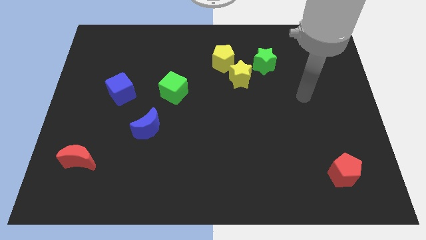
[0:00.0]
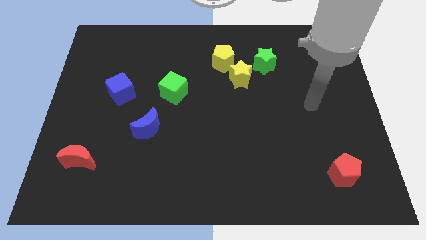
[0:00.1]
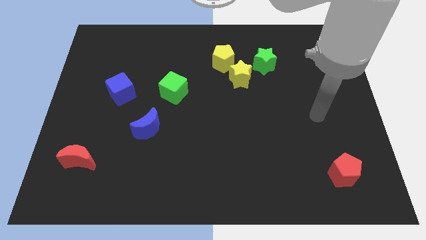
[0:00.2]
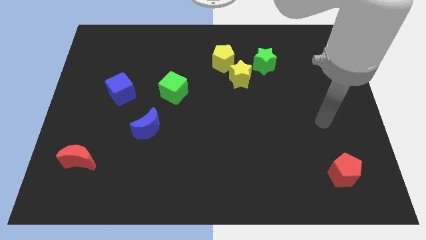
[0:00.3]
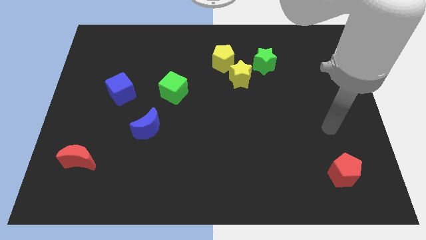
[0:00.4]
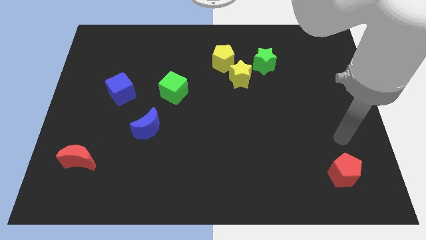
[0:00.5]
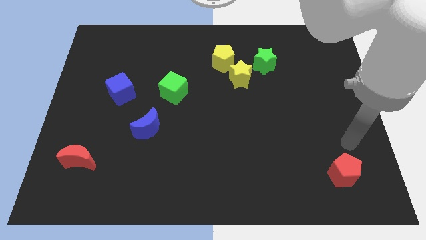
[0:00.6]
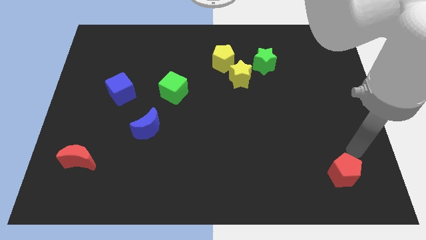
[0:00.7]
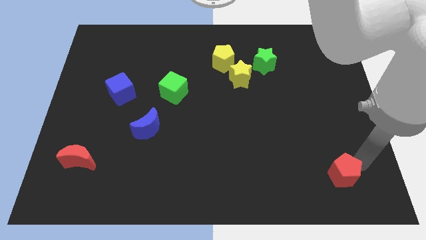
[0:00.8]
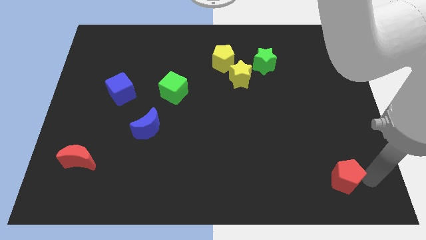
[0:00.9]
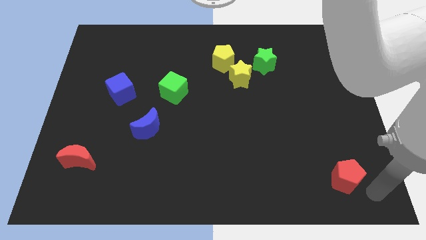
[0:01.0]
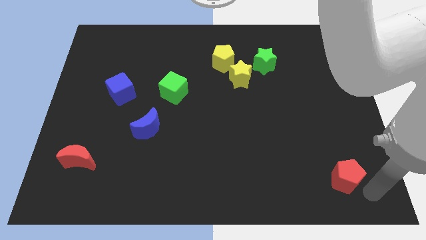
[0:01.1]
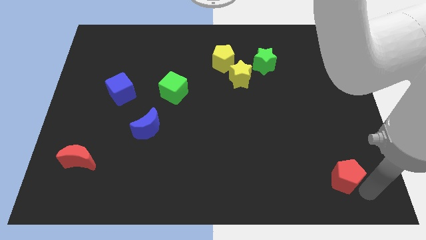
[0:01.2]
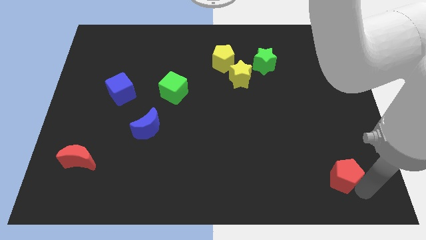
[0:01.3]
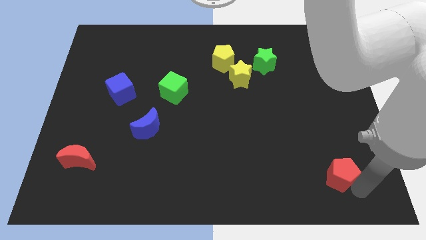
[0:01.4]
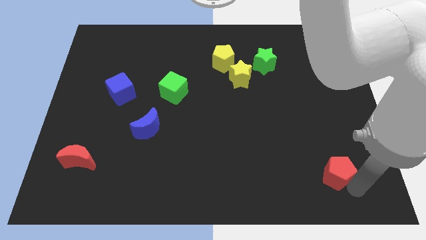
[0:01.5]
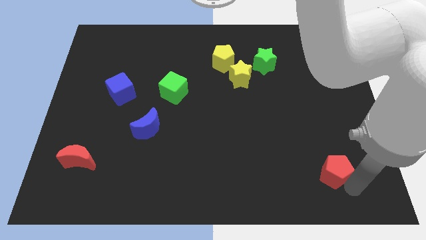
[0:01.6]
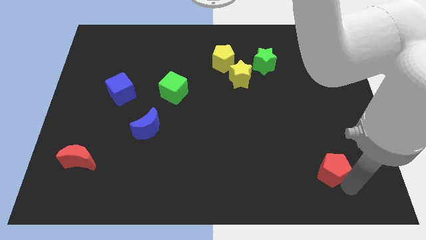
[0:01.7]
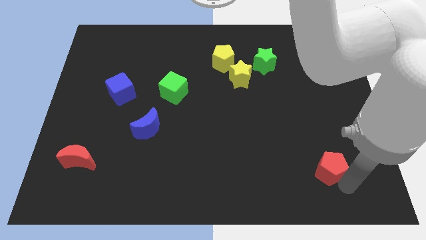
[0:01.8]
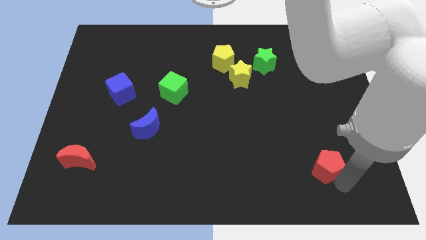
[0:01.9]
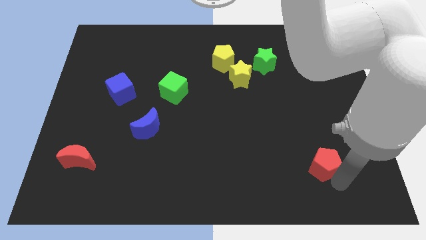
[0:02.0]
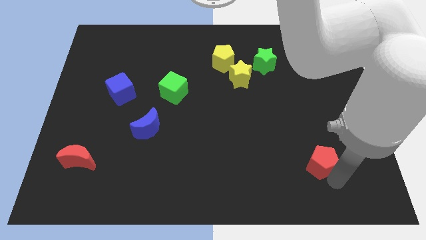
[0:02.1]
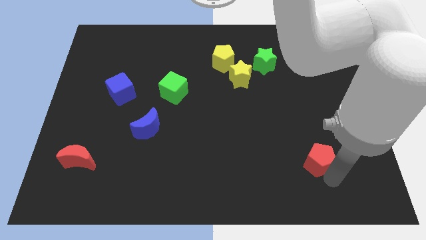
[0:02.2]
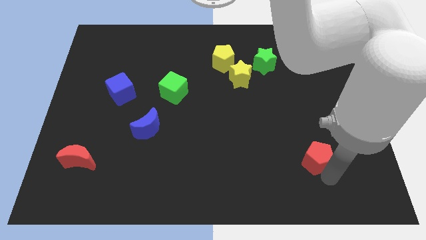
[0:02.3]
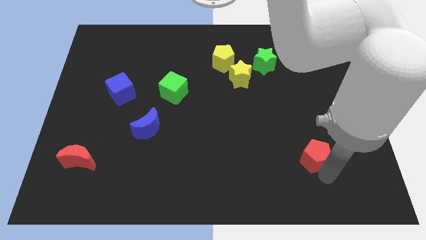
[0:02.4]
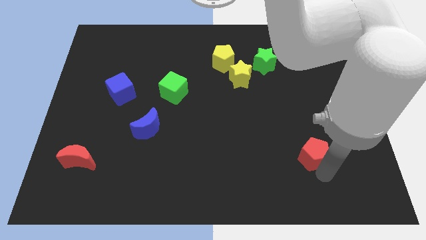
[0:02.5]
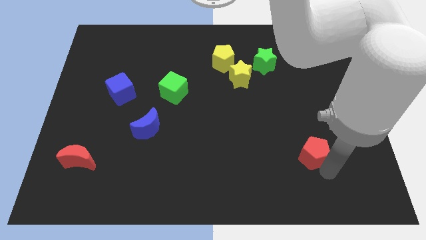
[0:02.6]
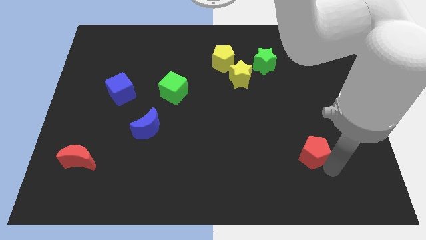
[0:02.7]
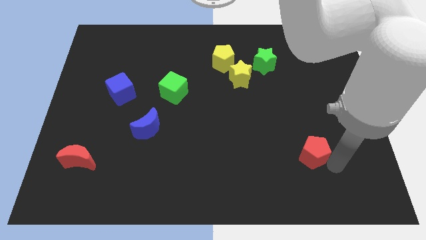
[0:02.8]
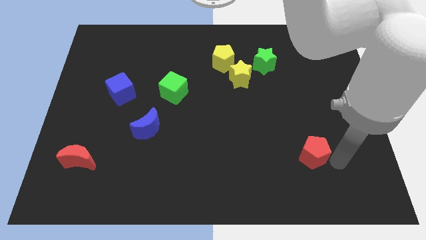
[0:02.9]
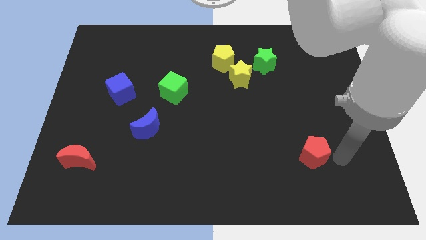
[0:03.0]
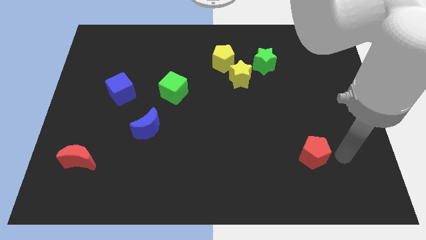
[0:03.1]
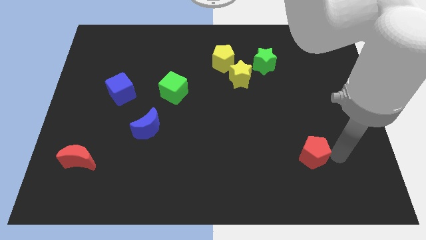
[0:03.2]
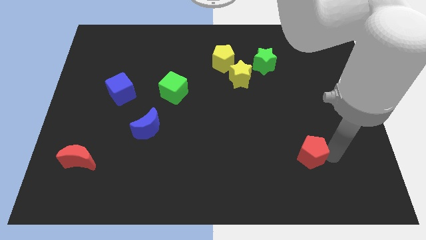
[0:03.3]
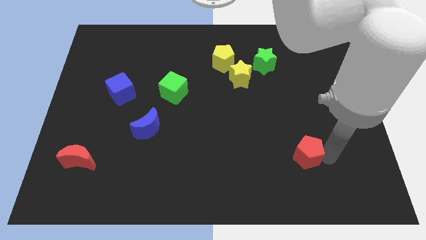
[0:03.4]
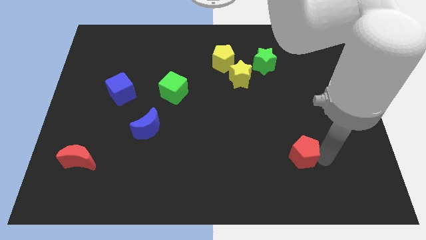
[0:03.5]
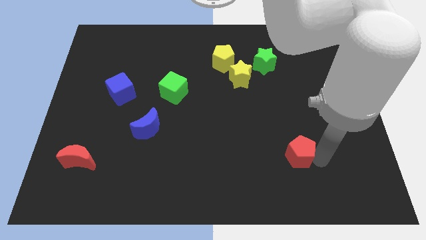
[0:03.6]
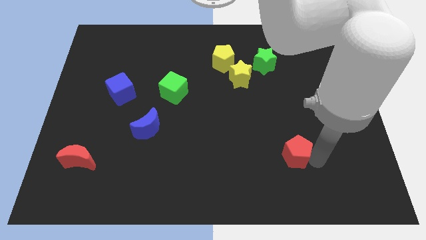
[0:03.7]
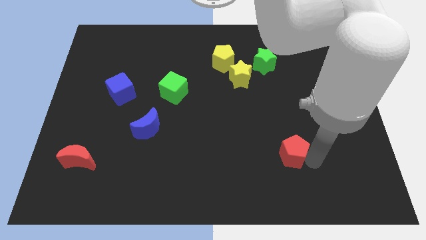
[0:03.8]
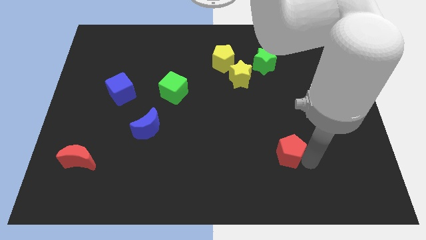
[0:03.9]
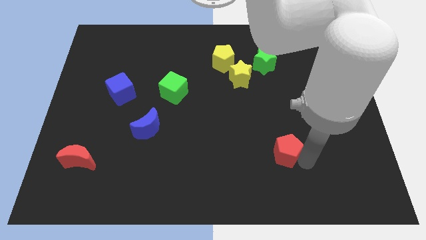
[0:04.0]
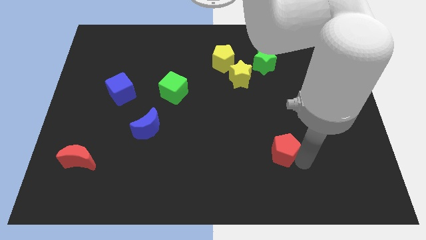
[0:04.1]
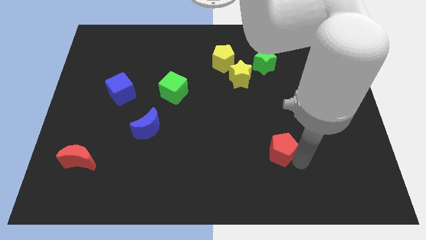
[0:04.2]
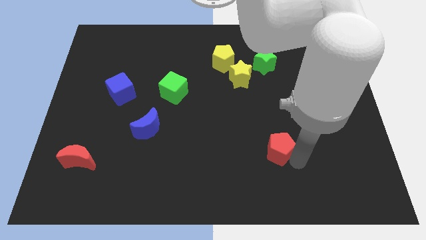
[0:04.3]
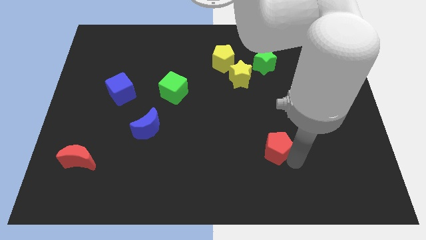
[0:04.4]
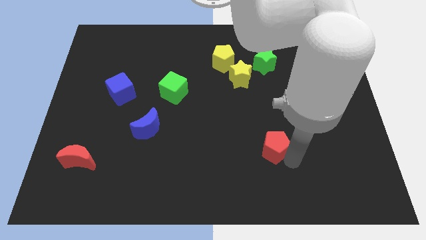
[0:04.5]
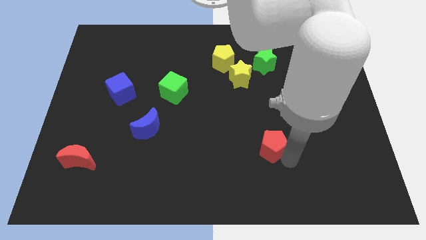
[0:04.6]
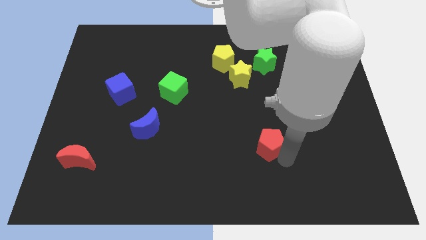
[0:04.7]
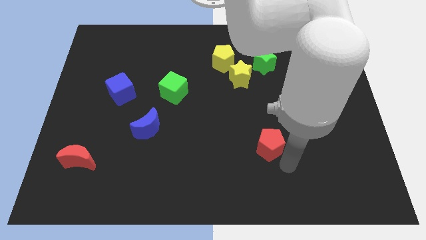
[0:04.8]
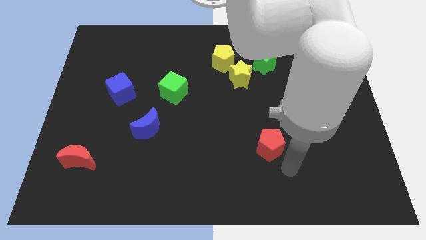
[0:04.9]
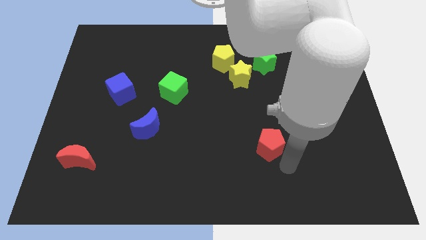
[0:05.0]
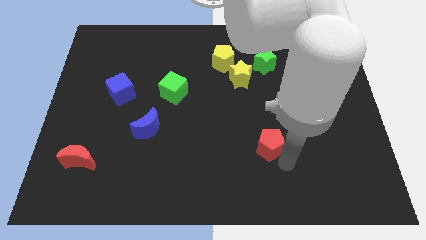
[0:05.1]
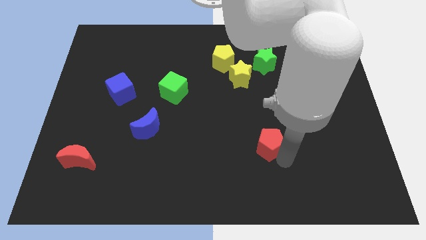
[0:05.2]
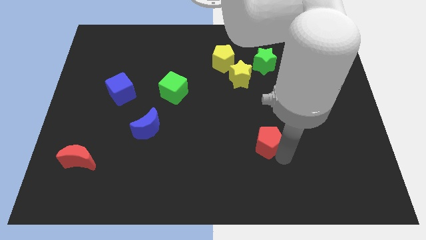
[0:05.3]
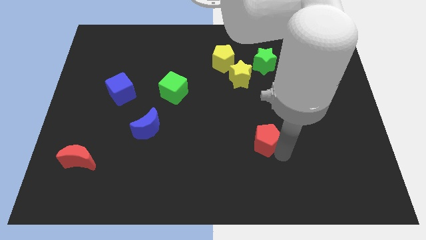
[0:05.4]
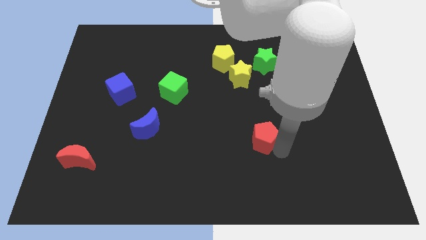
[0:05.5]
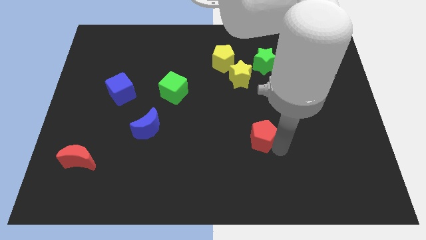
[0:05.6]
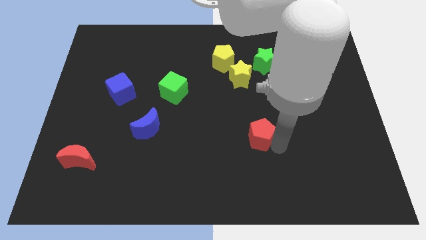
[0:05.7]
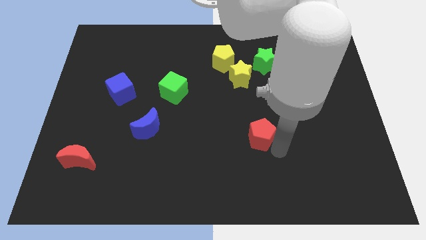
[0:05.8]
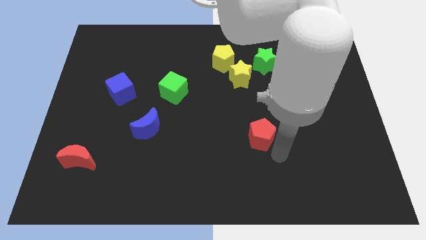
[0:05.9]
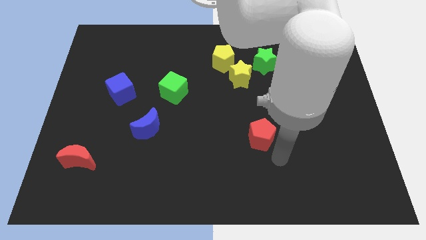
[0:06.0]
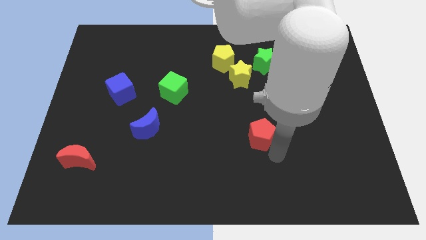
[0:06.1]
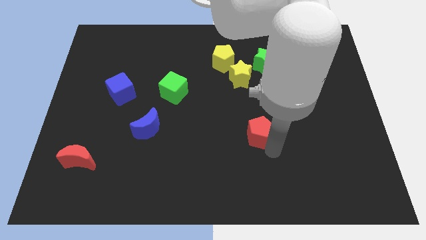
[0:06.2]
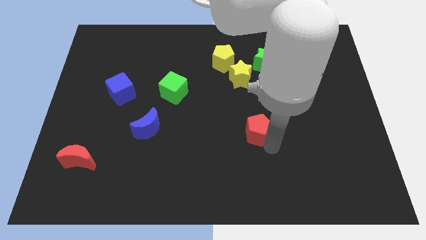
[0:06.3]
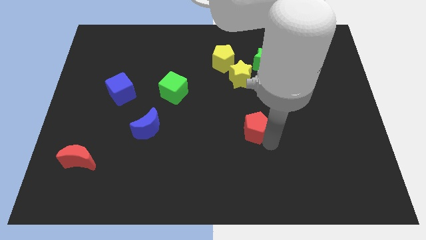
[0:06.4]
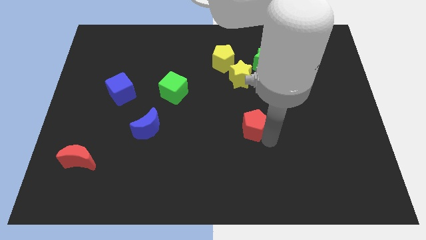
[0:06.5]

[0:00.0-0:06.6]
put the red pentagon to the middle

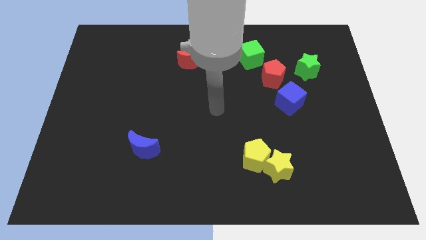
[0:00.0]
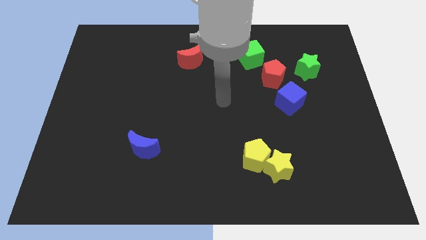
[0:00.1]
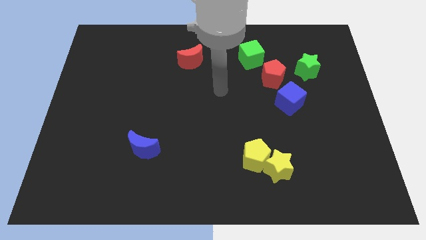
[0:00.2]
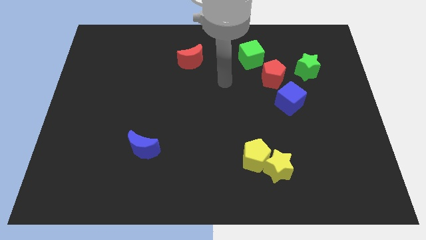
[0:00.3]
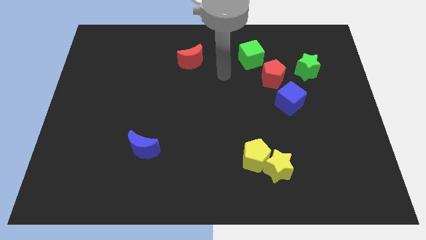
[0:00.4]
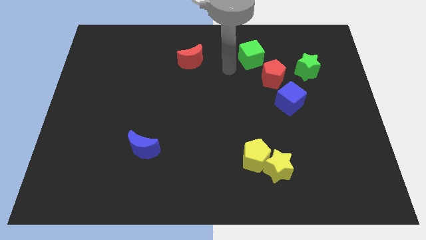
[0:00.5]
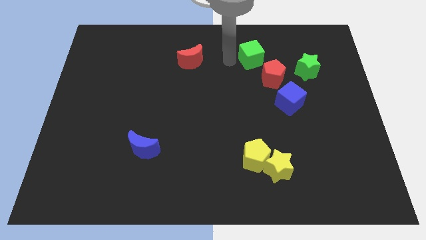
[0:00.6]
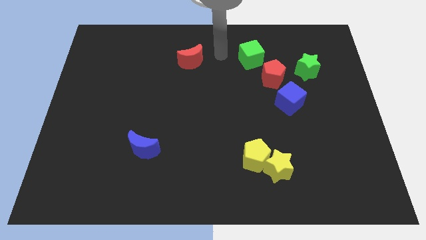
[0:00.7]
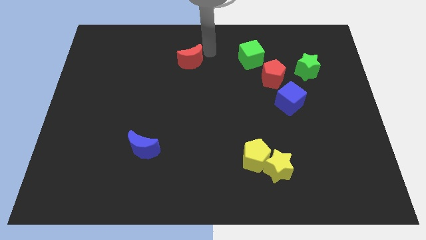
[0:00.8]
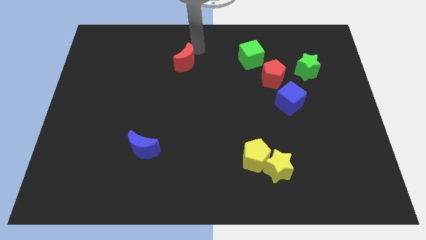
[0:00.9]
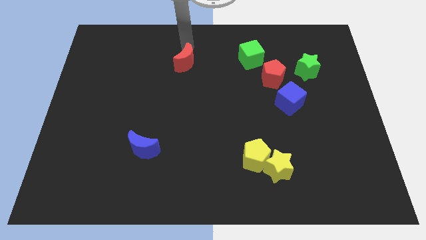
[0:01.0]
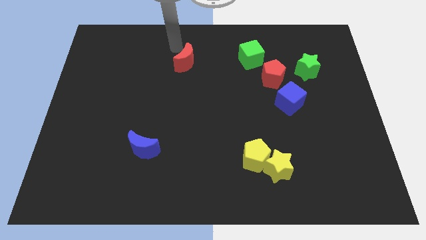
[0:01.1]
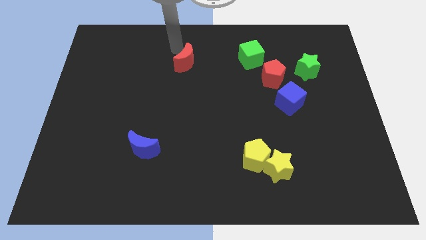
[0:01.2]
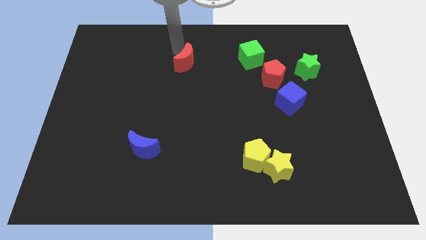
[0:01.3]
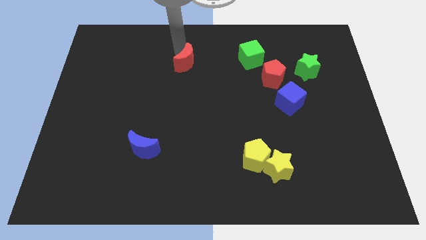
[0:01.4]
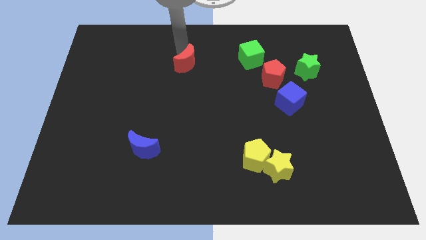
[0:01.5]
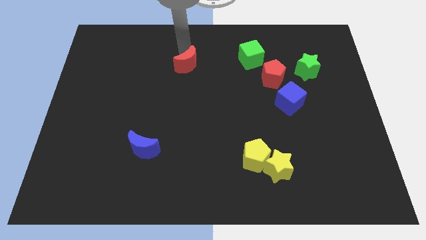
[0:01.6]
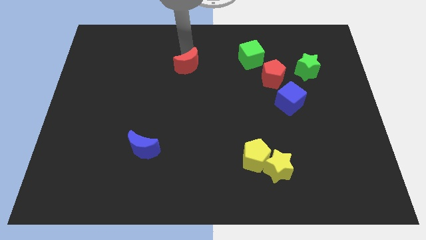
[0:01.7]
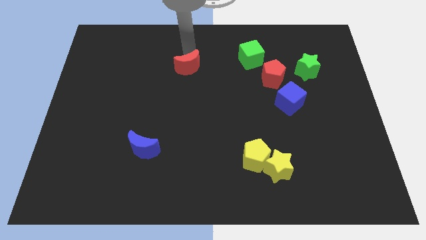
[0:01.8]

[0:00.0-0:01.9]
put the red moon to the middle of the board
